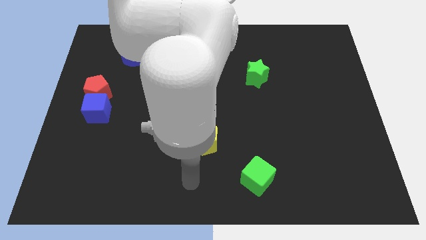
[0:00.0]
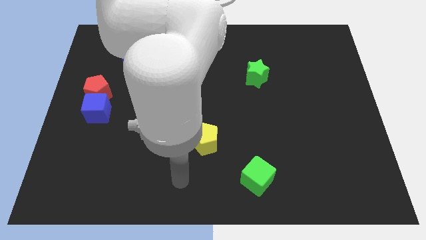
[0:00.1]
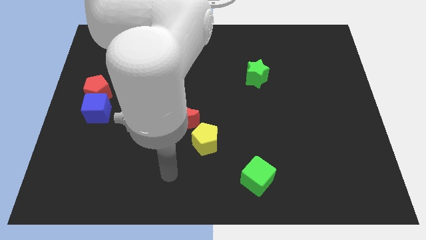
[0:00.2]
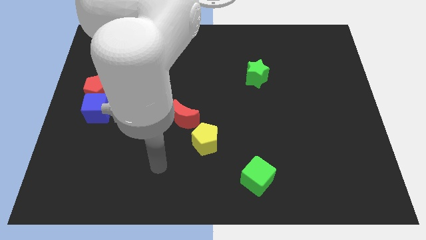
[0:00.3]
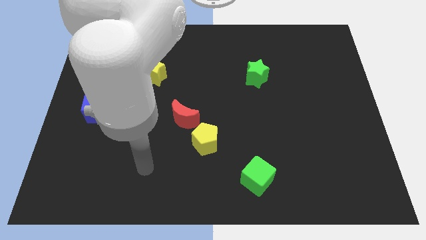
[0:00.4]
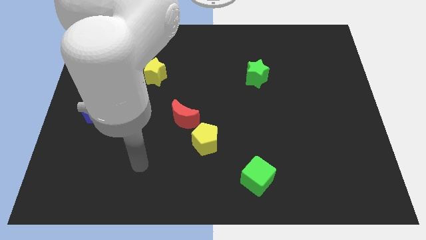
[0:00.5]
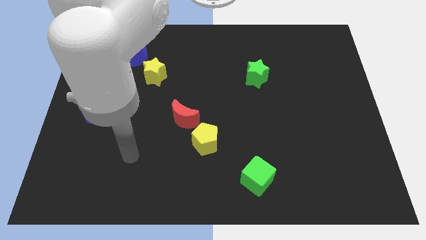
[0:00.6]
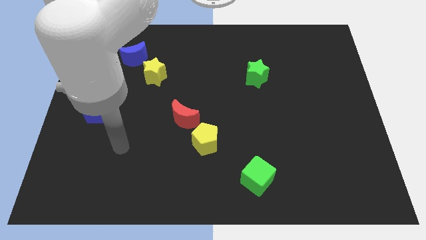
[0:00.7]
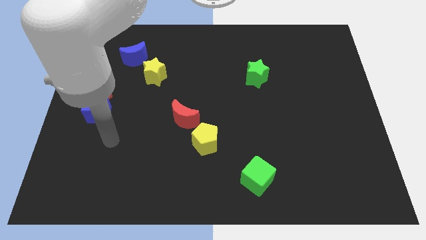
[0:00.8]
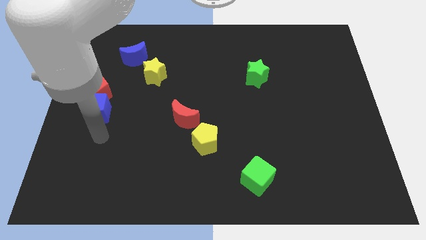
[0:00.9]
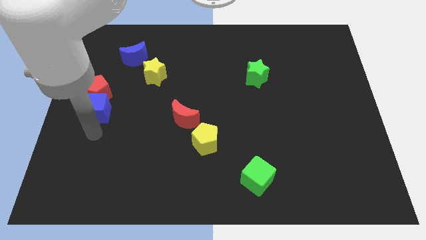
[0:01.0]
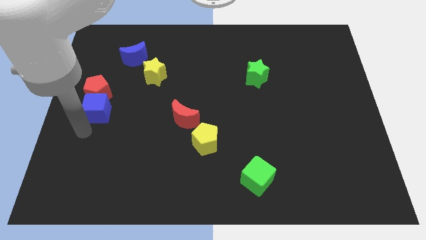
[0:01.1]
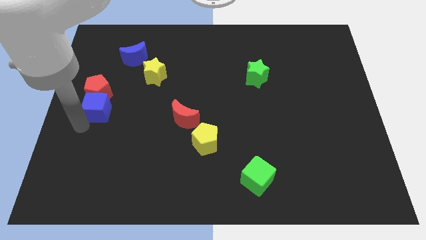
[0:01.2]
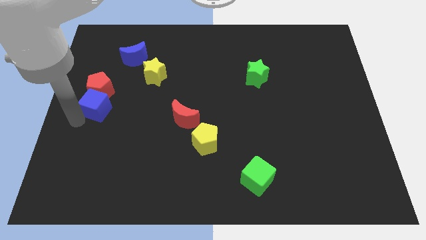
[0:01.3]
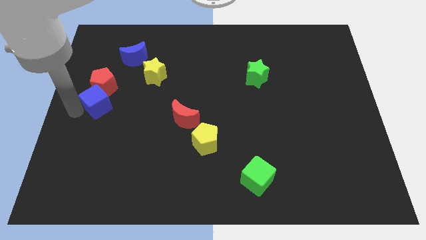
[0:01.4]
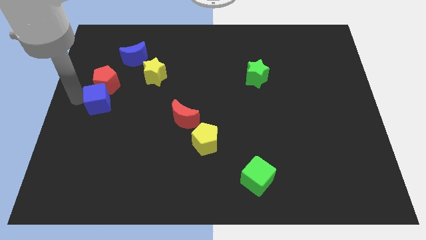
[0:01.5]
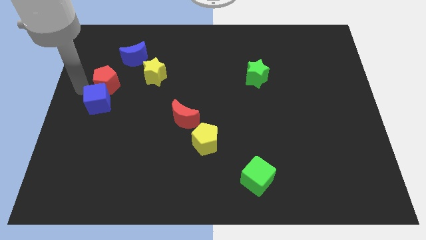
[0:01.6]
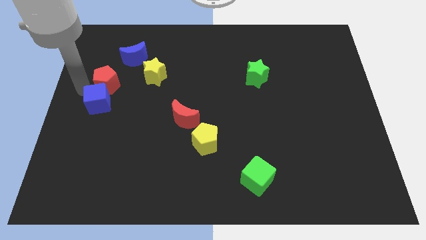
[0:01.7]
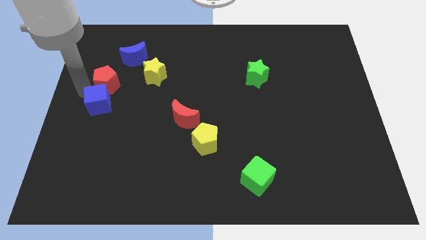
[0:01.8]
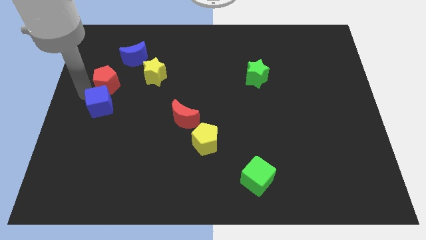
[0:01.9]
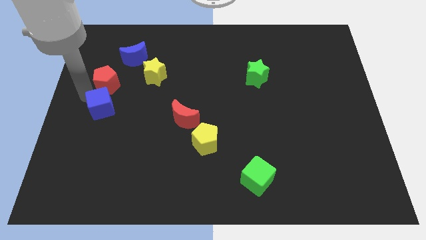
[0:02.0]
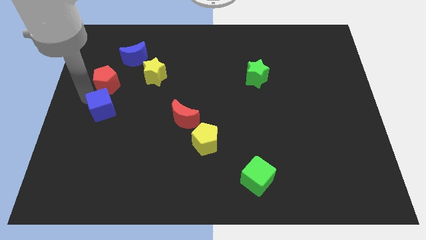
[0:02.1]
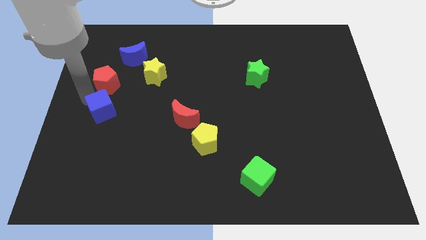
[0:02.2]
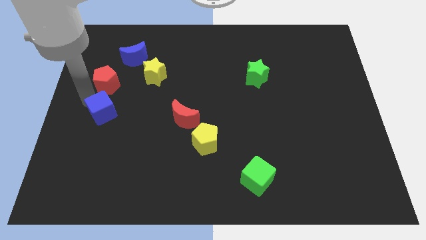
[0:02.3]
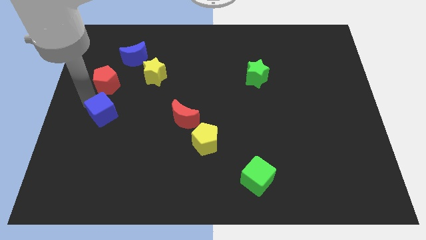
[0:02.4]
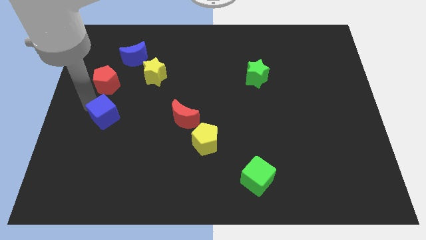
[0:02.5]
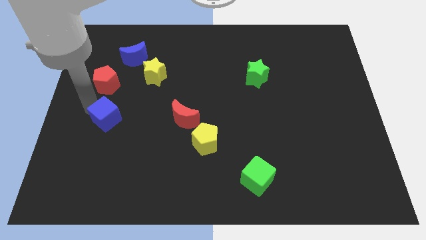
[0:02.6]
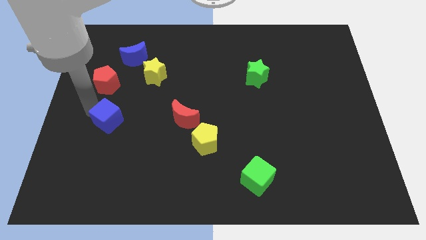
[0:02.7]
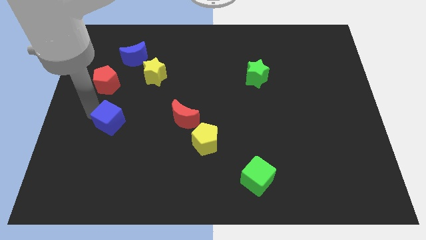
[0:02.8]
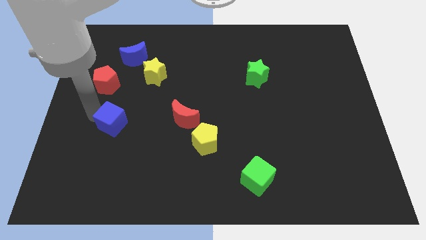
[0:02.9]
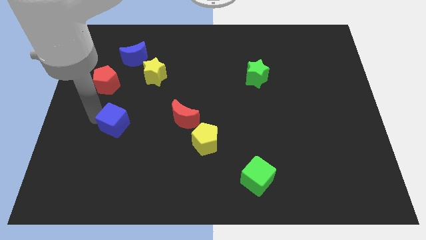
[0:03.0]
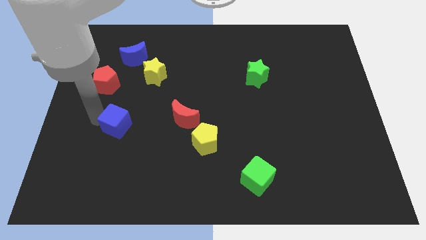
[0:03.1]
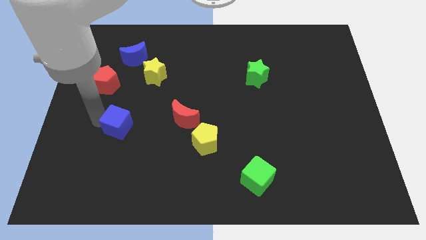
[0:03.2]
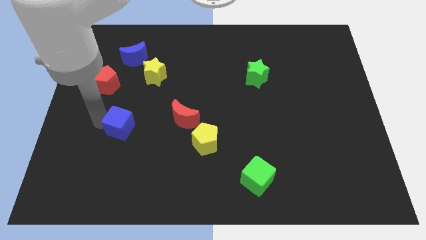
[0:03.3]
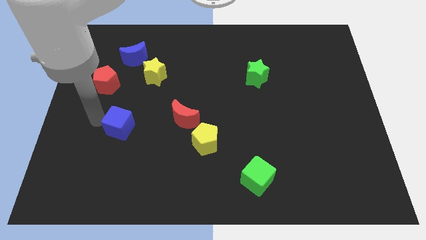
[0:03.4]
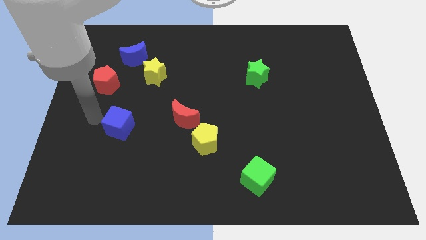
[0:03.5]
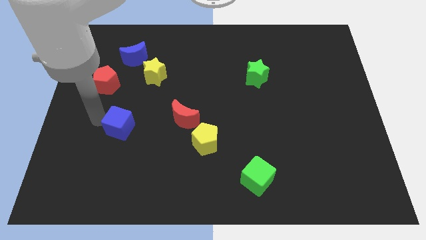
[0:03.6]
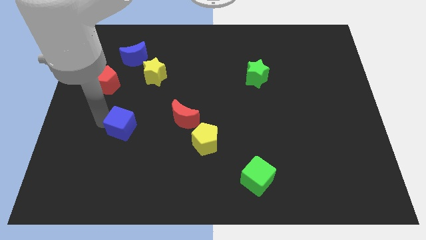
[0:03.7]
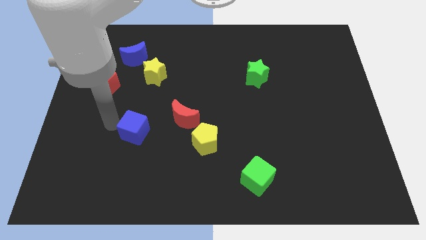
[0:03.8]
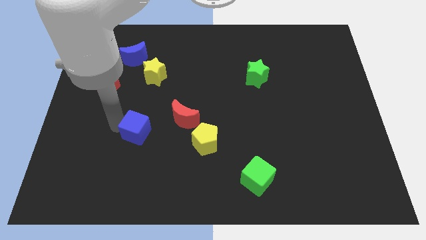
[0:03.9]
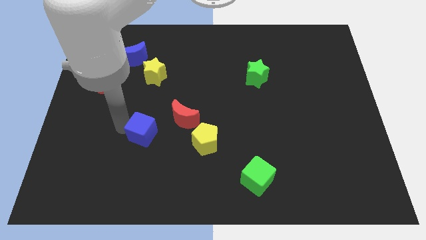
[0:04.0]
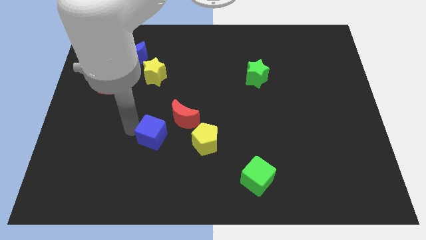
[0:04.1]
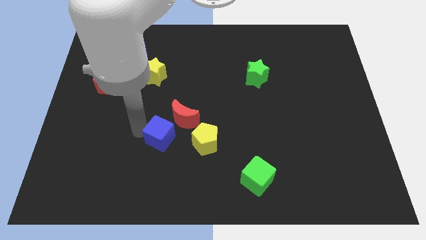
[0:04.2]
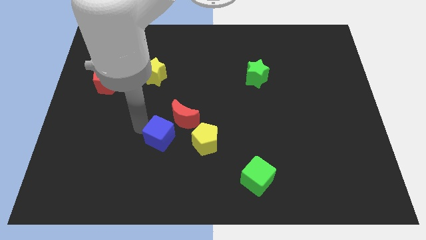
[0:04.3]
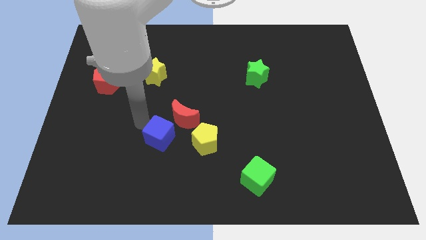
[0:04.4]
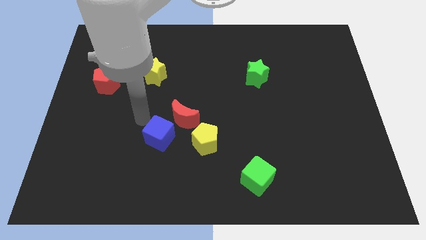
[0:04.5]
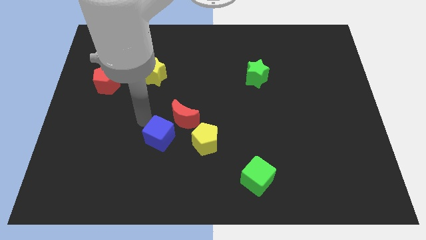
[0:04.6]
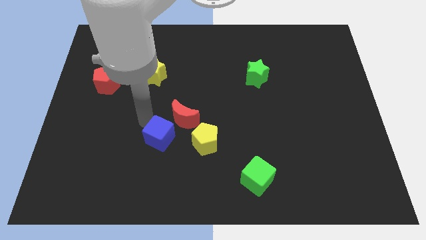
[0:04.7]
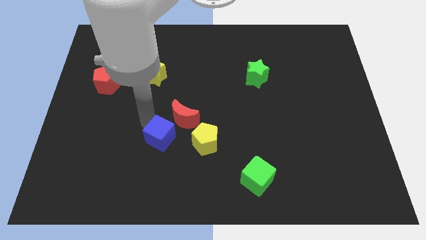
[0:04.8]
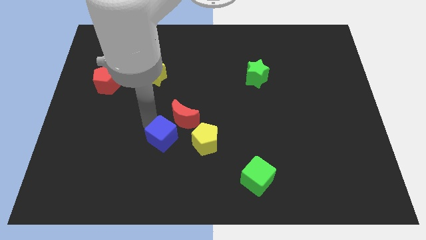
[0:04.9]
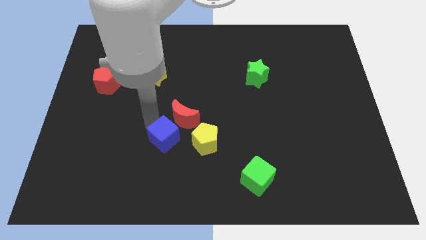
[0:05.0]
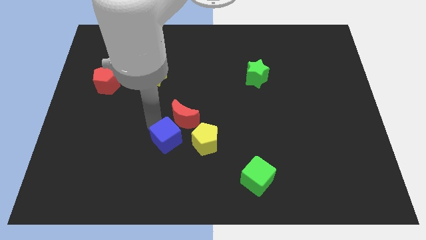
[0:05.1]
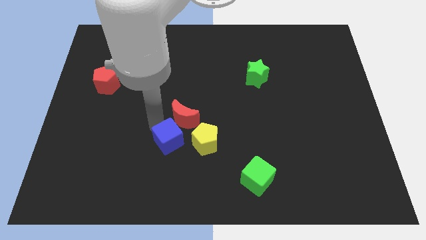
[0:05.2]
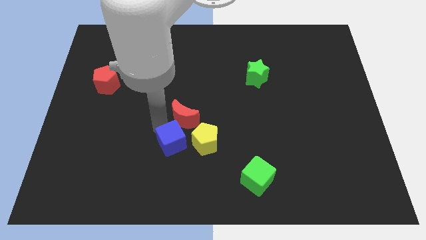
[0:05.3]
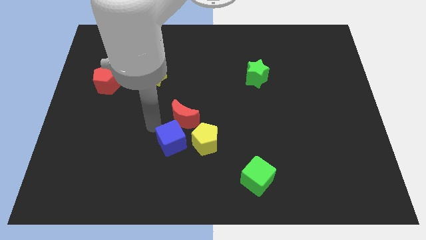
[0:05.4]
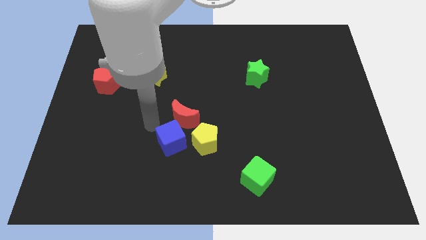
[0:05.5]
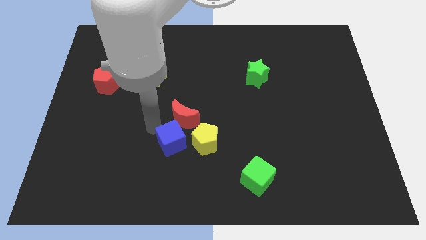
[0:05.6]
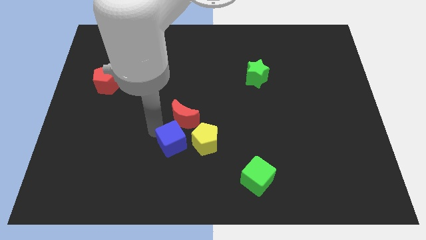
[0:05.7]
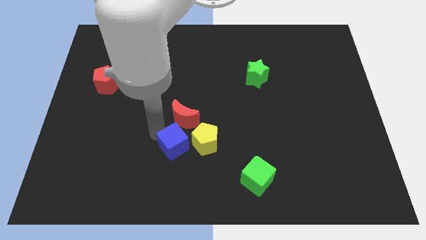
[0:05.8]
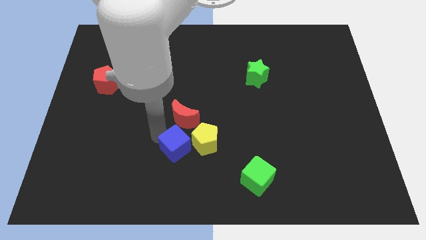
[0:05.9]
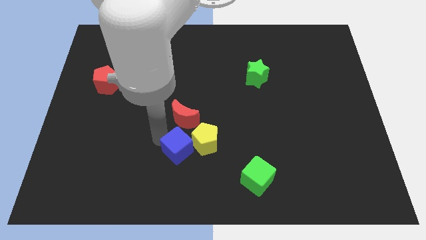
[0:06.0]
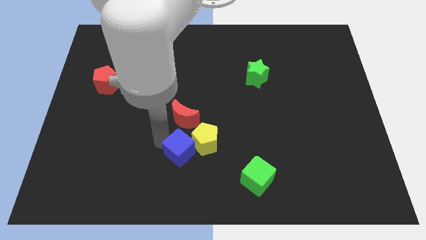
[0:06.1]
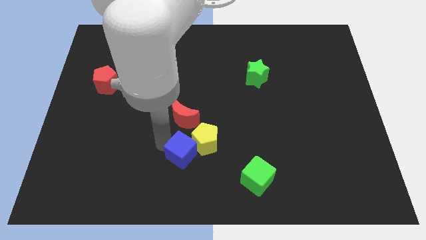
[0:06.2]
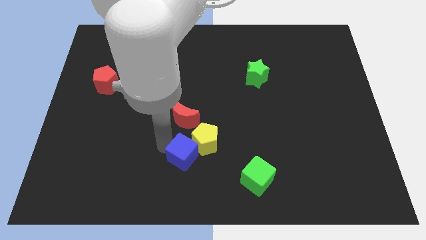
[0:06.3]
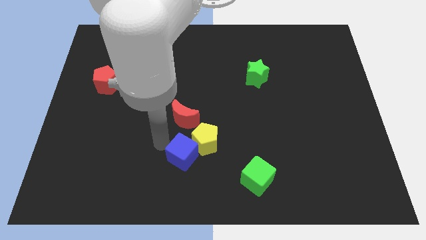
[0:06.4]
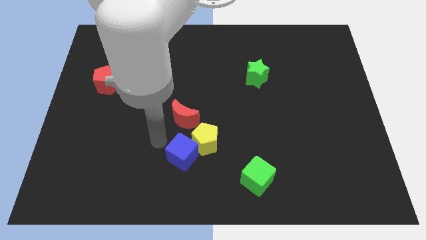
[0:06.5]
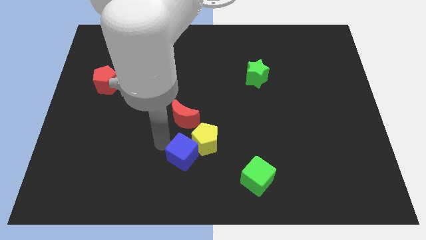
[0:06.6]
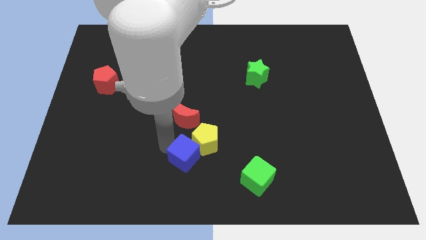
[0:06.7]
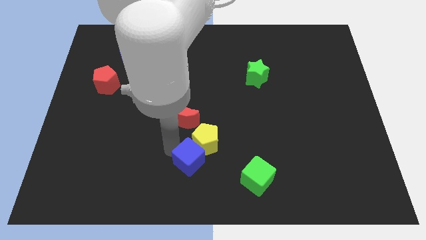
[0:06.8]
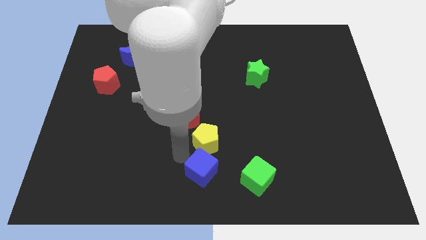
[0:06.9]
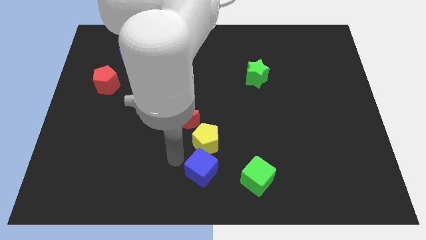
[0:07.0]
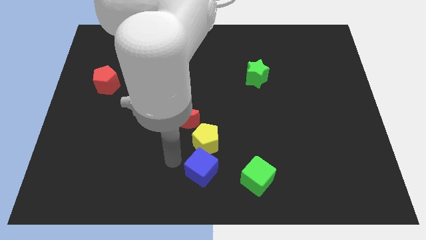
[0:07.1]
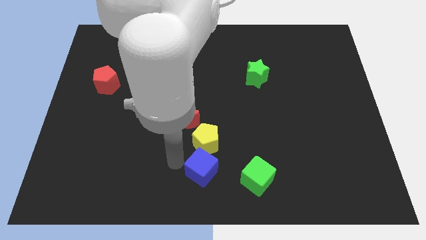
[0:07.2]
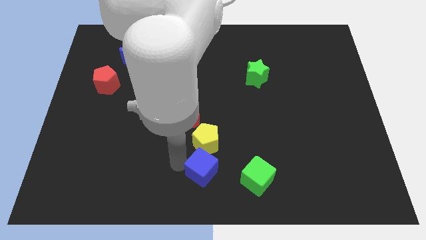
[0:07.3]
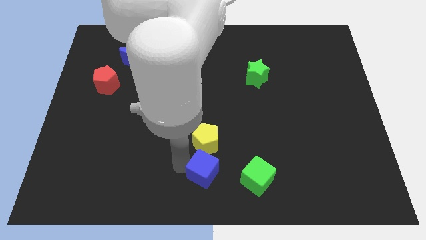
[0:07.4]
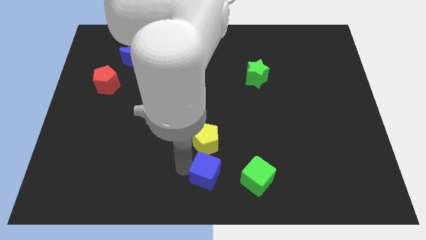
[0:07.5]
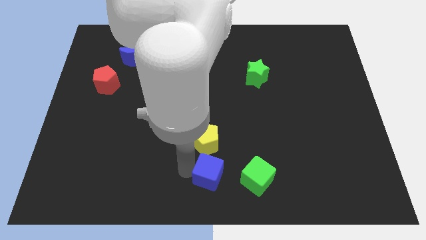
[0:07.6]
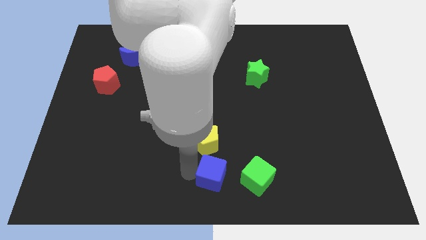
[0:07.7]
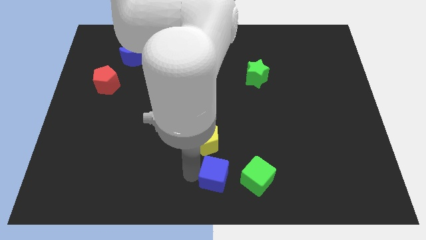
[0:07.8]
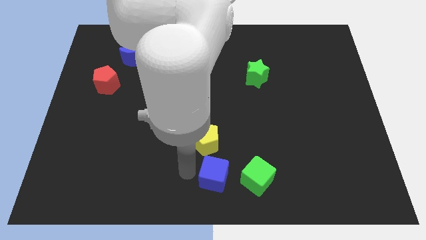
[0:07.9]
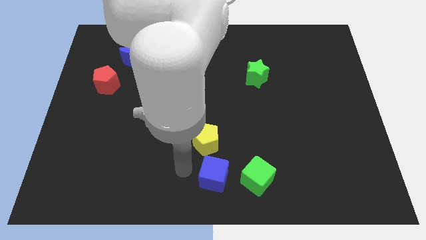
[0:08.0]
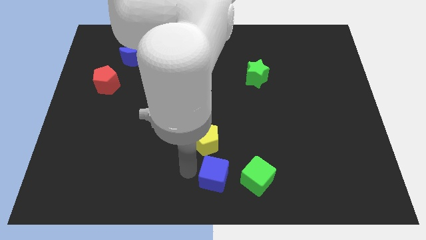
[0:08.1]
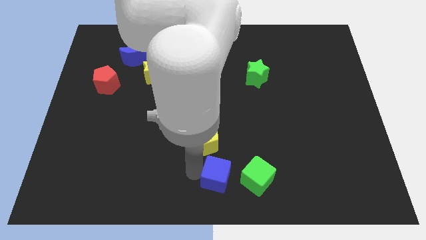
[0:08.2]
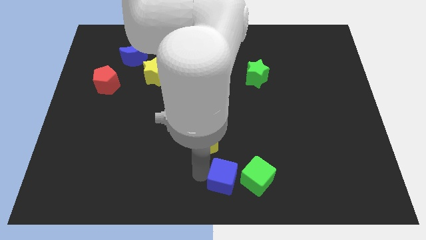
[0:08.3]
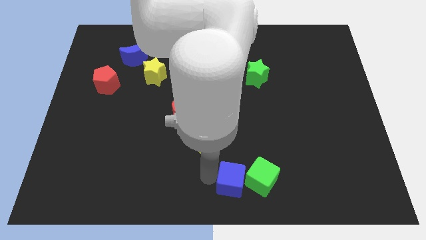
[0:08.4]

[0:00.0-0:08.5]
put the blue cube to the green cube
